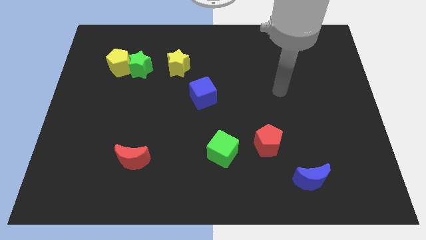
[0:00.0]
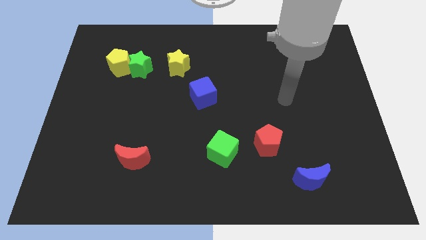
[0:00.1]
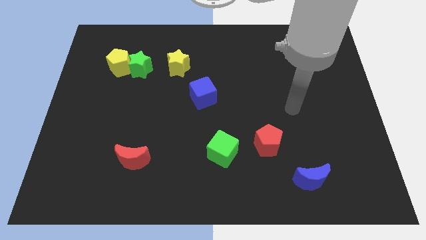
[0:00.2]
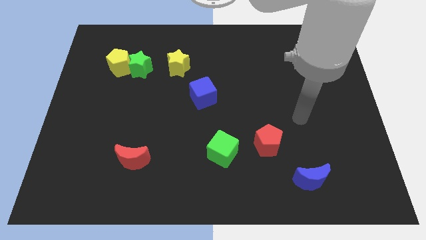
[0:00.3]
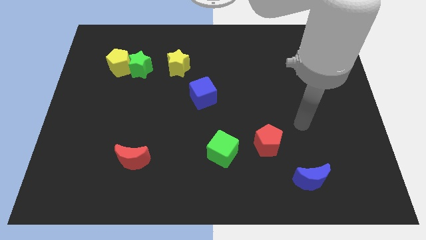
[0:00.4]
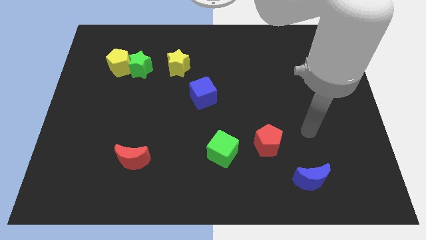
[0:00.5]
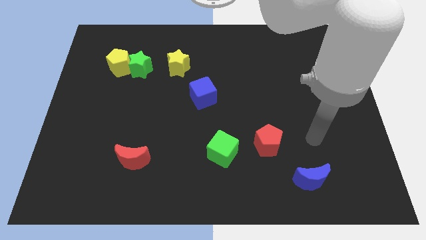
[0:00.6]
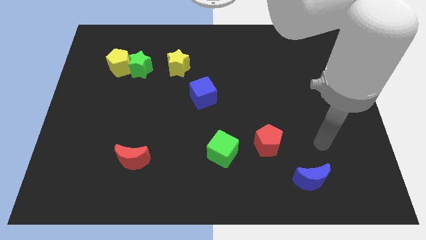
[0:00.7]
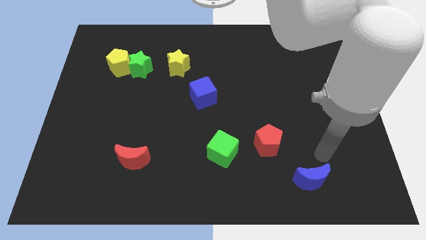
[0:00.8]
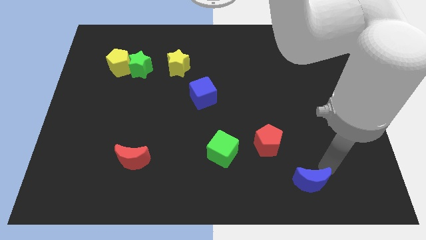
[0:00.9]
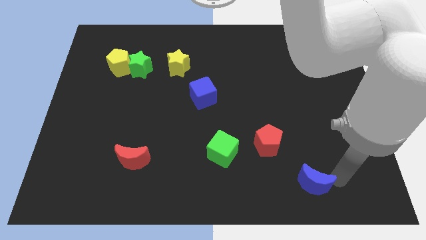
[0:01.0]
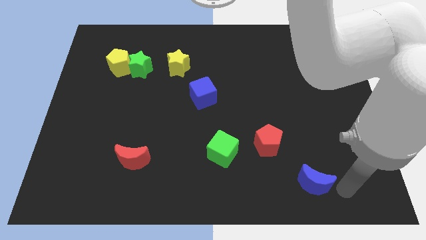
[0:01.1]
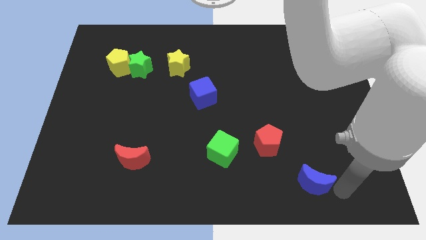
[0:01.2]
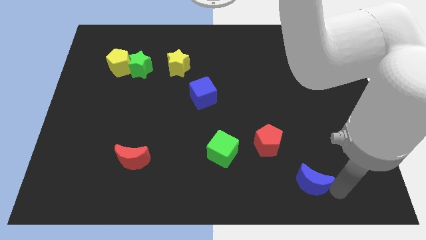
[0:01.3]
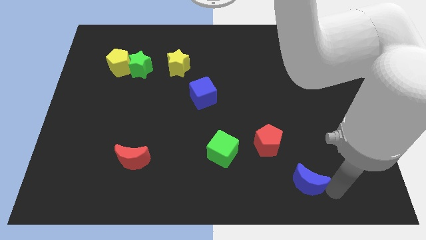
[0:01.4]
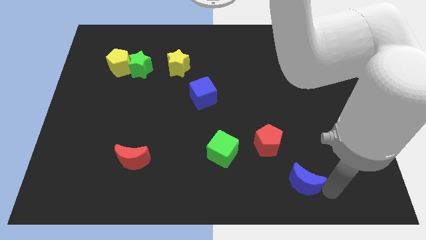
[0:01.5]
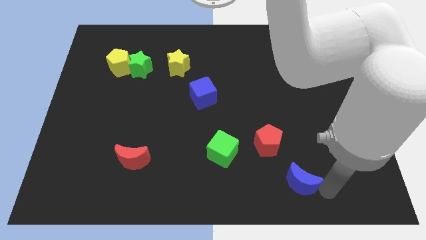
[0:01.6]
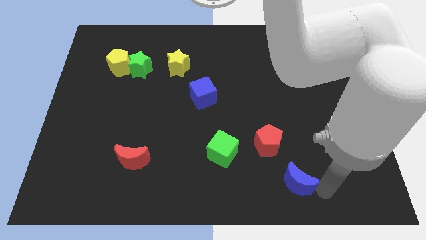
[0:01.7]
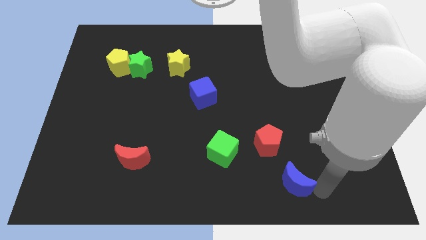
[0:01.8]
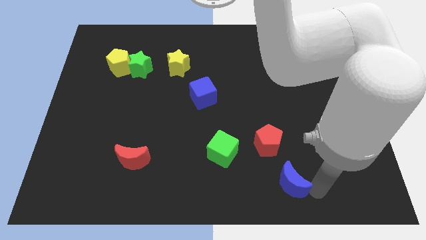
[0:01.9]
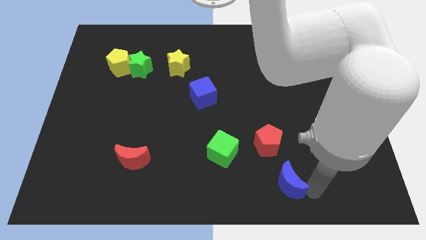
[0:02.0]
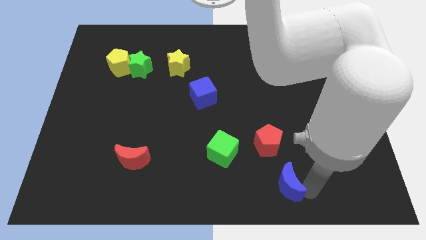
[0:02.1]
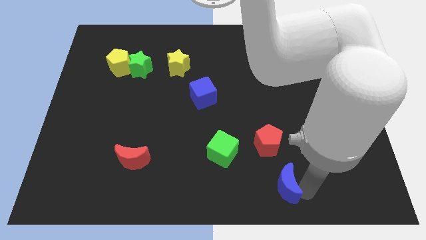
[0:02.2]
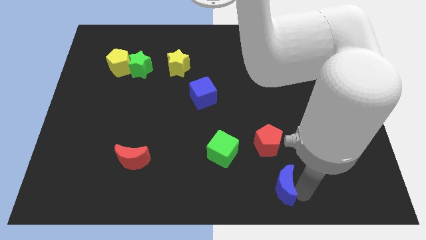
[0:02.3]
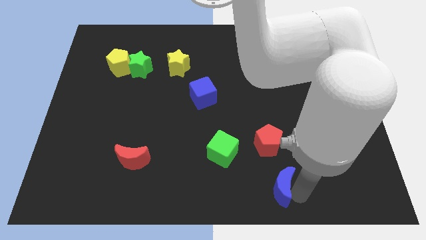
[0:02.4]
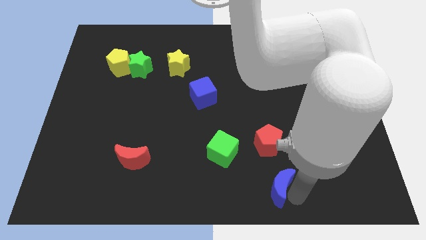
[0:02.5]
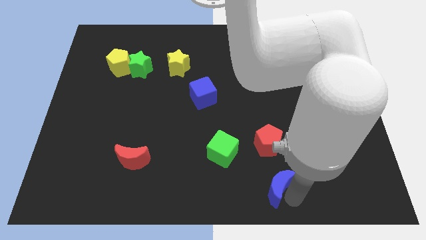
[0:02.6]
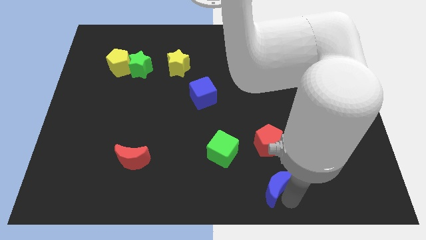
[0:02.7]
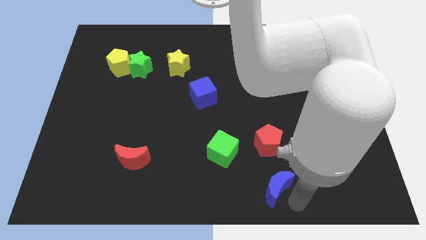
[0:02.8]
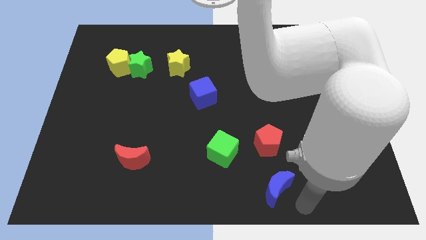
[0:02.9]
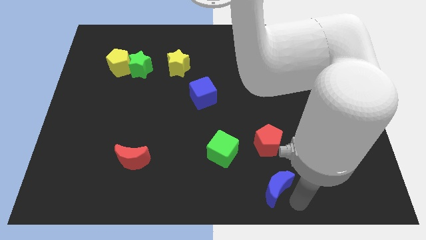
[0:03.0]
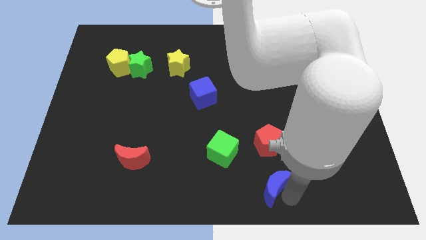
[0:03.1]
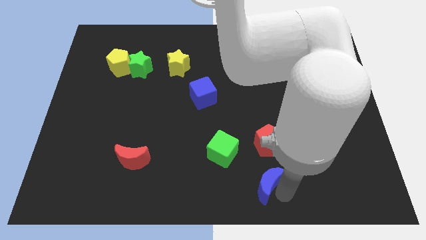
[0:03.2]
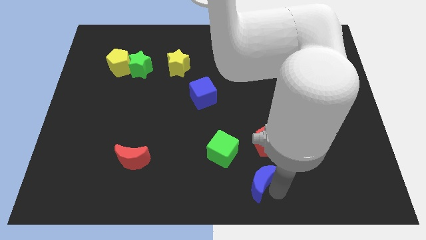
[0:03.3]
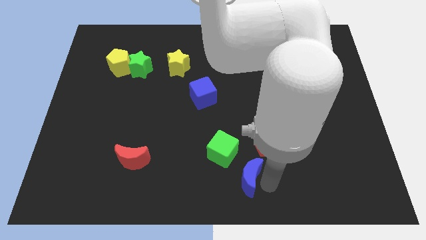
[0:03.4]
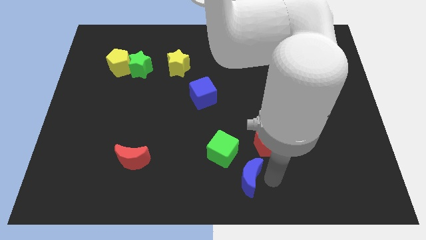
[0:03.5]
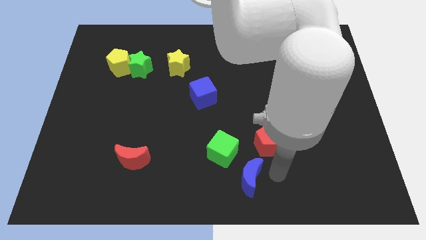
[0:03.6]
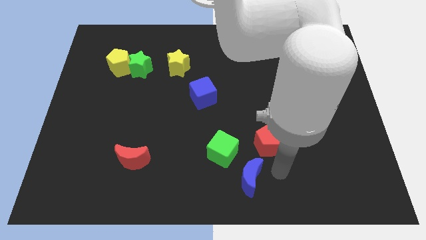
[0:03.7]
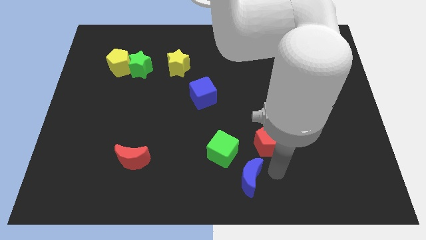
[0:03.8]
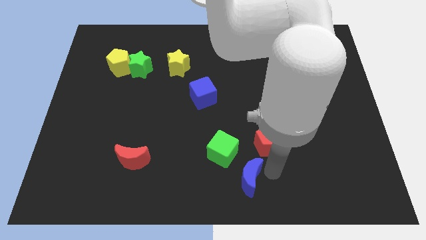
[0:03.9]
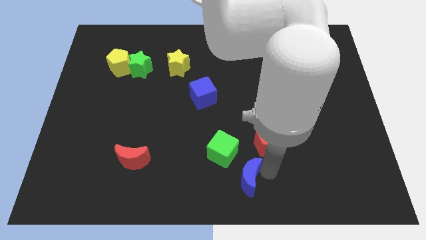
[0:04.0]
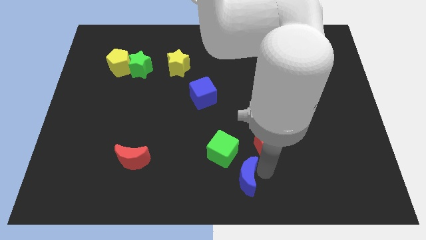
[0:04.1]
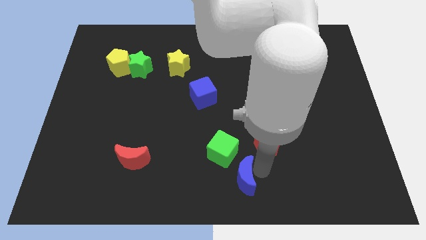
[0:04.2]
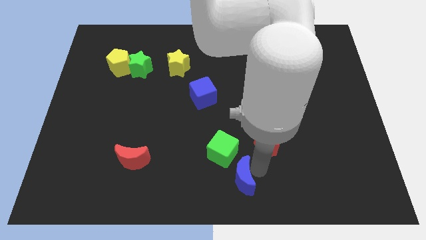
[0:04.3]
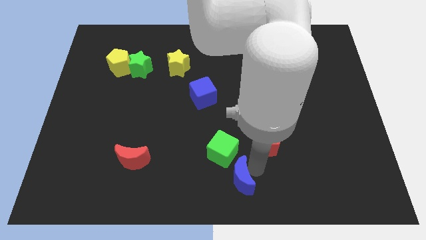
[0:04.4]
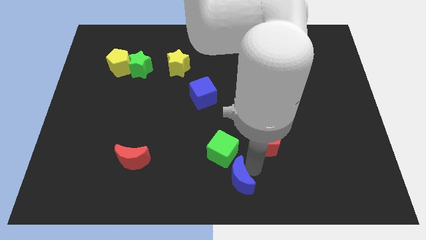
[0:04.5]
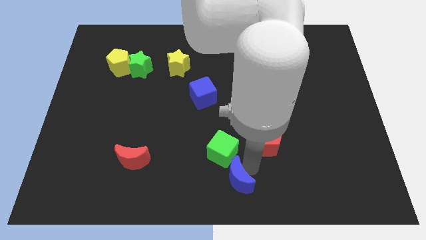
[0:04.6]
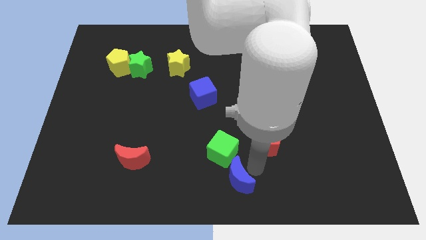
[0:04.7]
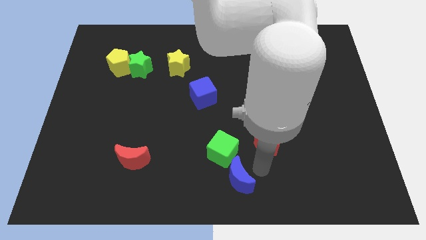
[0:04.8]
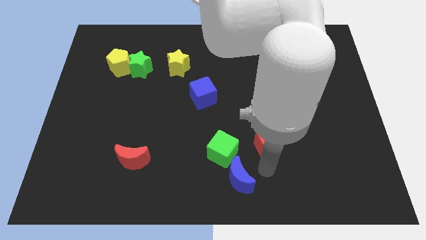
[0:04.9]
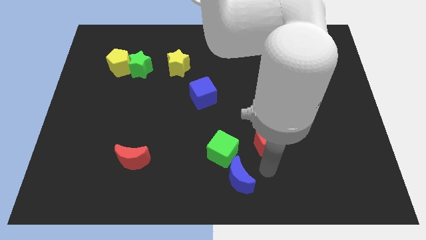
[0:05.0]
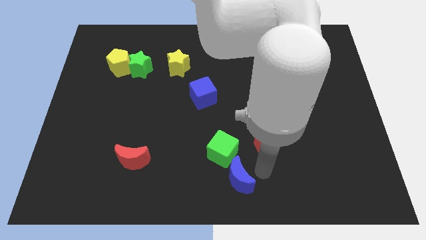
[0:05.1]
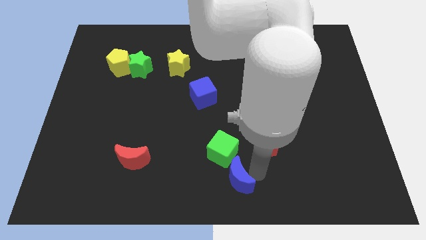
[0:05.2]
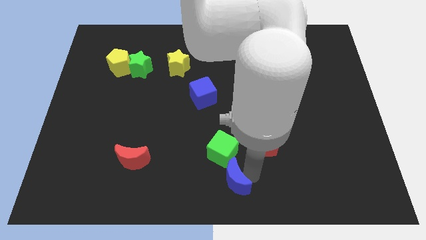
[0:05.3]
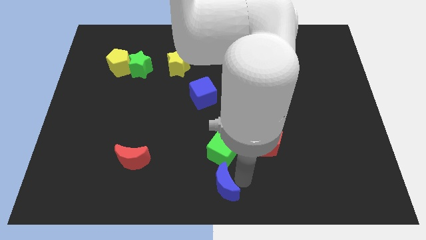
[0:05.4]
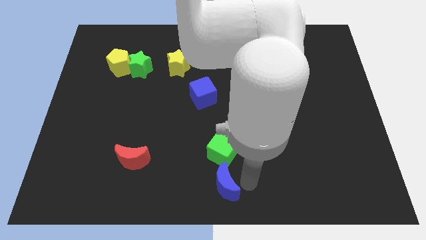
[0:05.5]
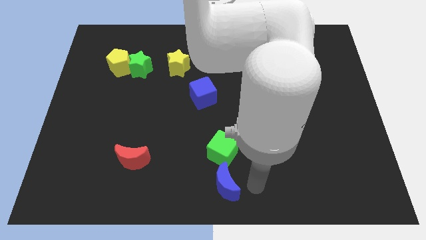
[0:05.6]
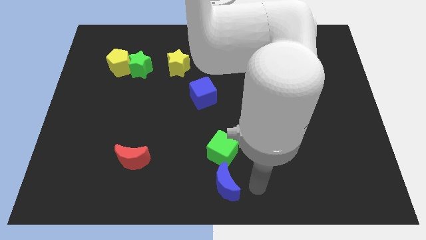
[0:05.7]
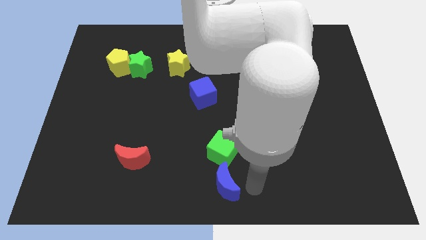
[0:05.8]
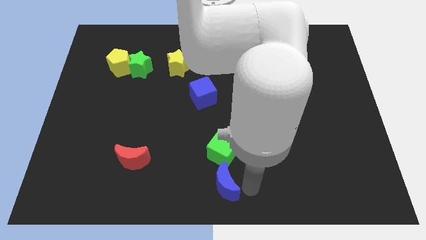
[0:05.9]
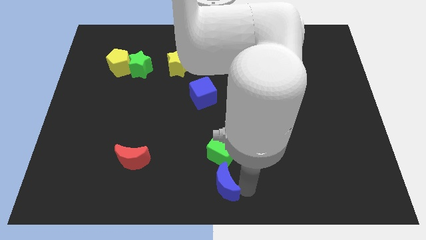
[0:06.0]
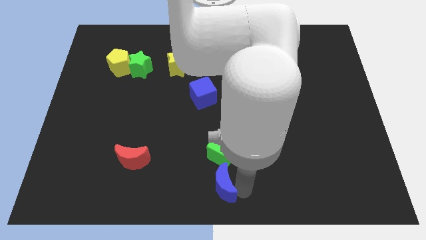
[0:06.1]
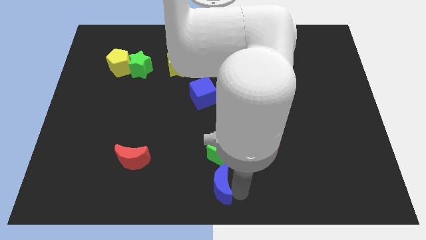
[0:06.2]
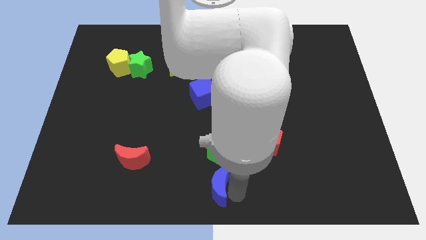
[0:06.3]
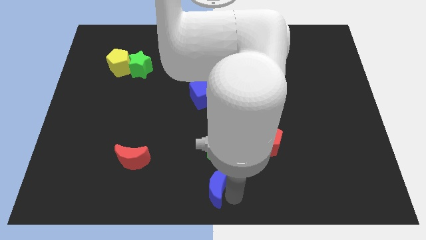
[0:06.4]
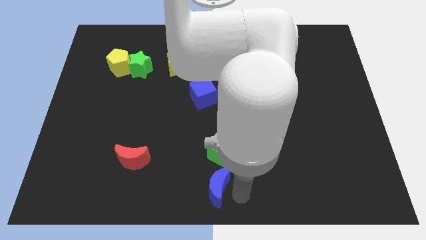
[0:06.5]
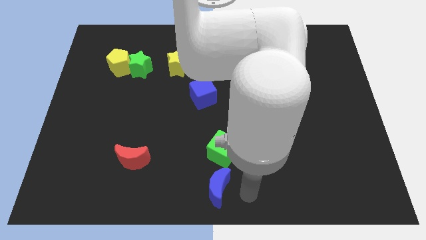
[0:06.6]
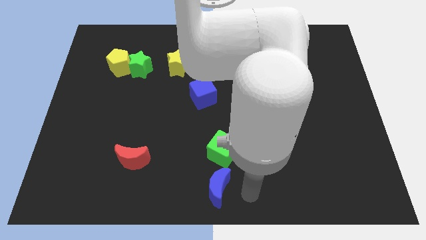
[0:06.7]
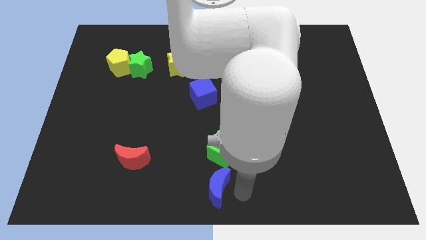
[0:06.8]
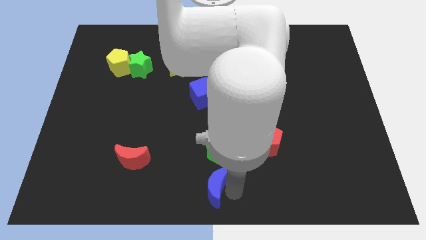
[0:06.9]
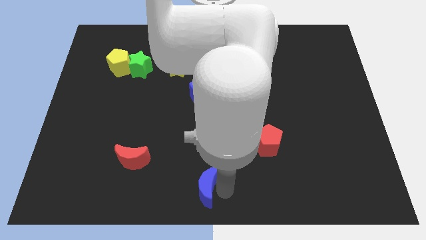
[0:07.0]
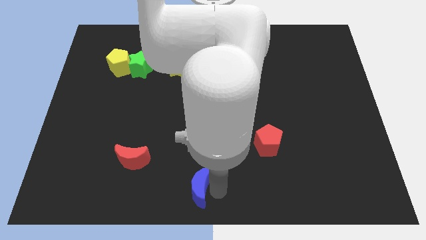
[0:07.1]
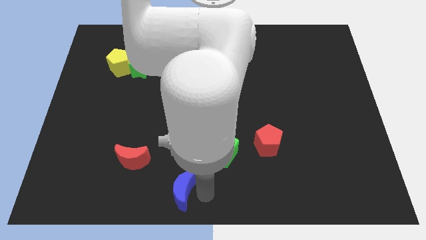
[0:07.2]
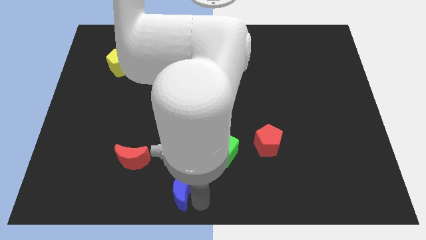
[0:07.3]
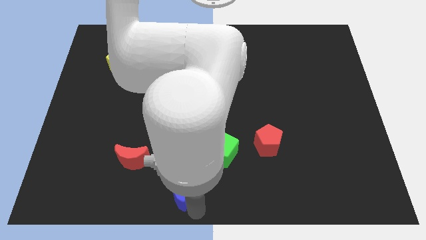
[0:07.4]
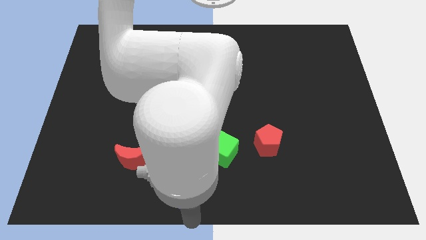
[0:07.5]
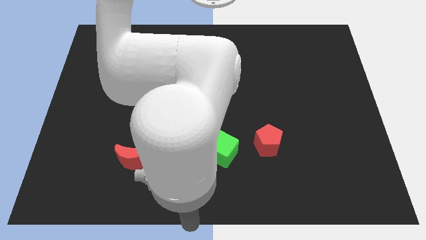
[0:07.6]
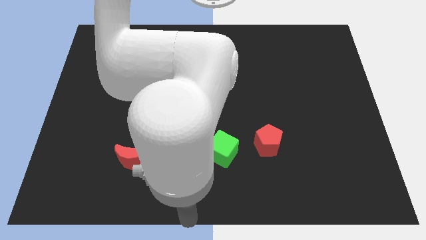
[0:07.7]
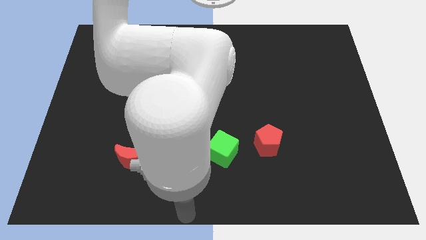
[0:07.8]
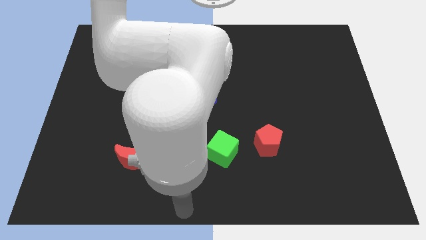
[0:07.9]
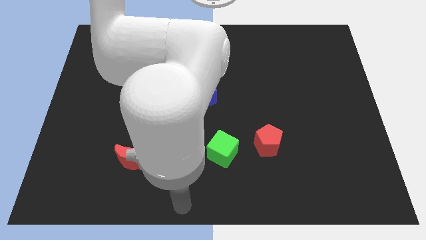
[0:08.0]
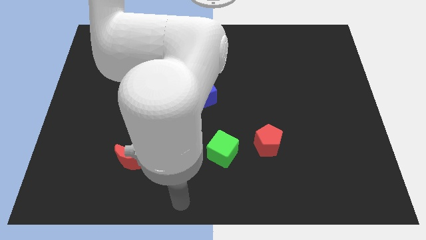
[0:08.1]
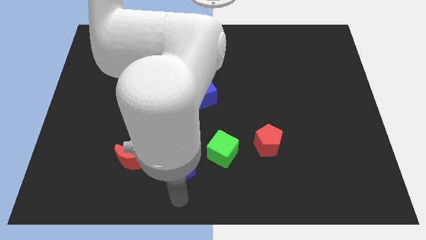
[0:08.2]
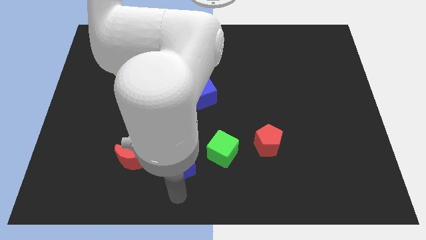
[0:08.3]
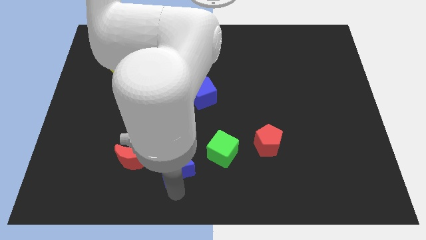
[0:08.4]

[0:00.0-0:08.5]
slide the blue moon to the left of the green cube
